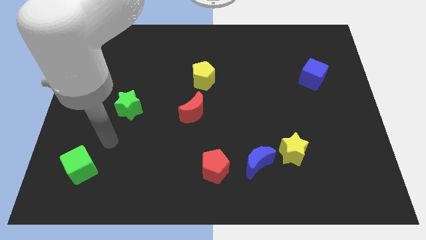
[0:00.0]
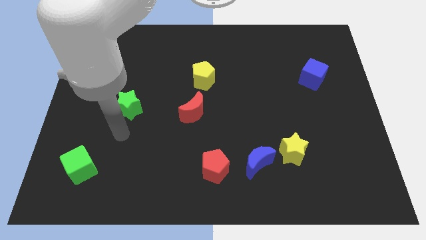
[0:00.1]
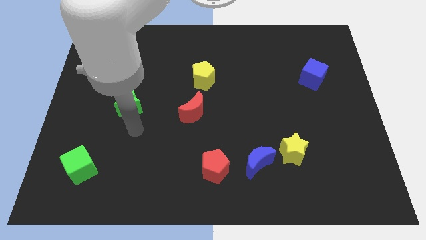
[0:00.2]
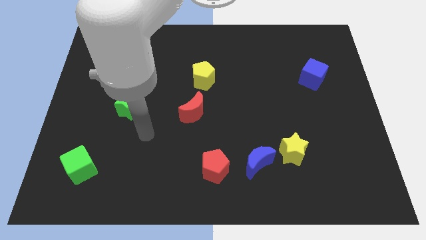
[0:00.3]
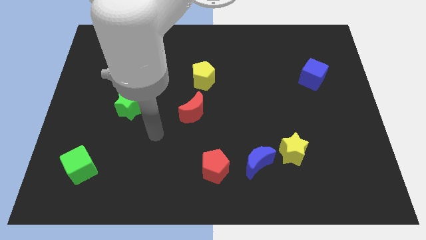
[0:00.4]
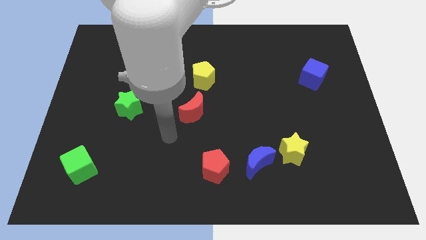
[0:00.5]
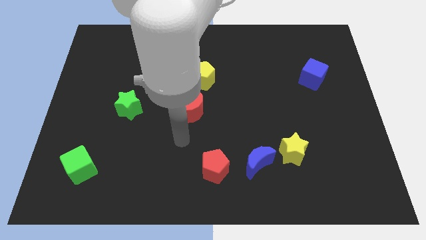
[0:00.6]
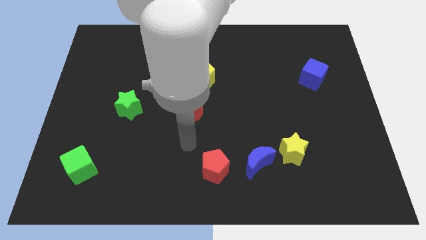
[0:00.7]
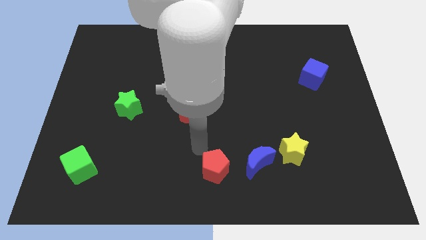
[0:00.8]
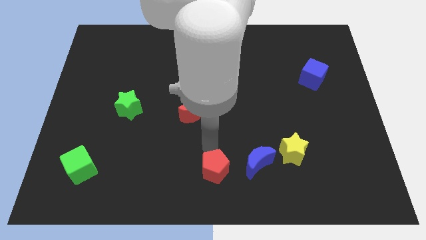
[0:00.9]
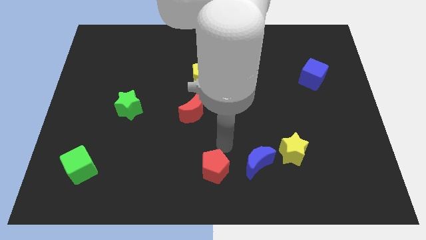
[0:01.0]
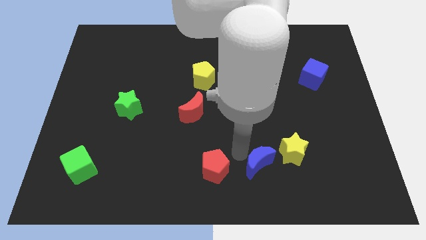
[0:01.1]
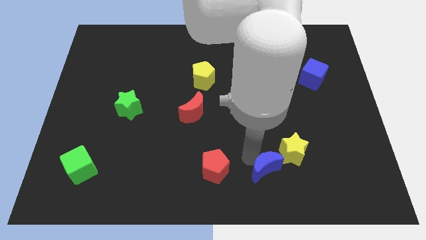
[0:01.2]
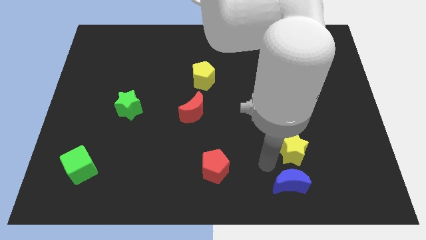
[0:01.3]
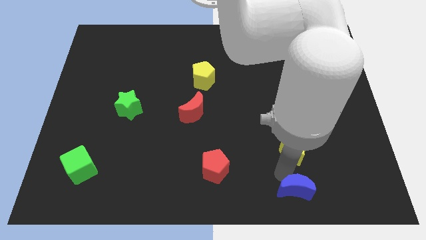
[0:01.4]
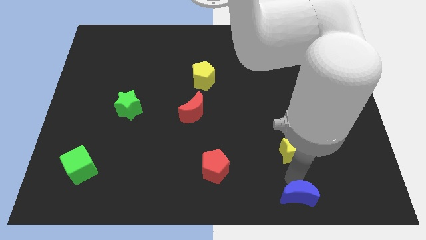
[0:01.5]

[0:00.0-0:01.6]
move the yellow star away from the blue moon

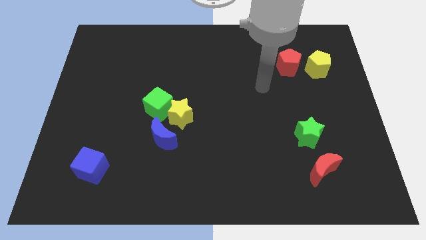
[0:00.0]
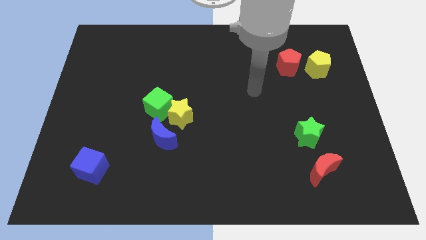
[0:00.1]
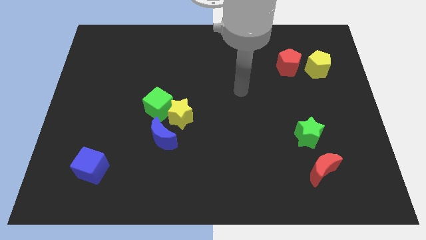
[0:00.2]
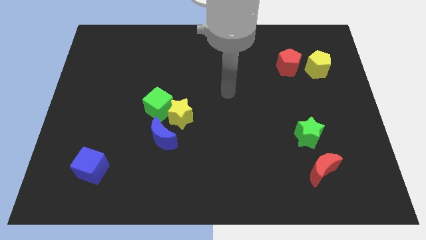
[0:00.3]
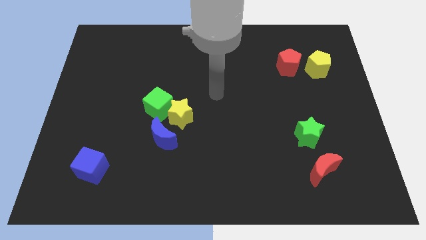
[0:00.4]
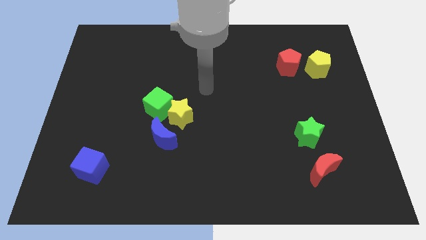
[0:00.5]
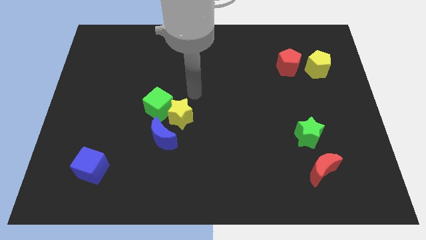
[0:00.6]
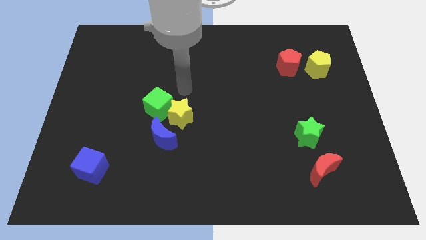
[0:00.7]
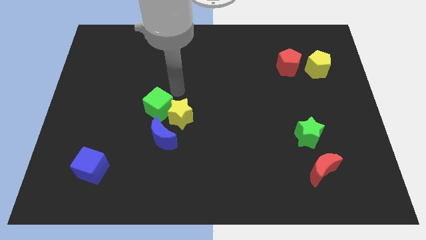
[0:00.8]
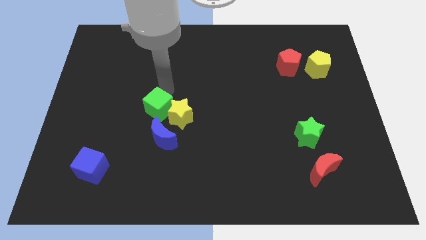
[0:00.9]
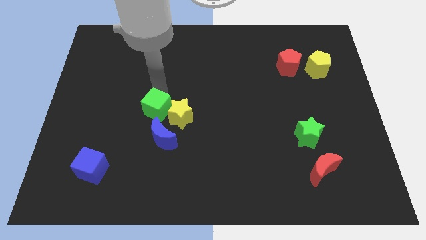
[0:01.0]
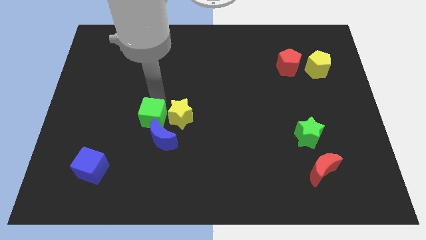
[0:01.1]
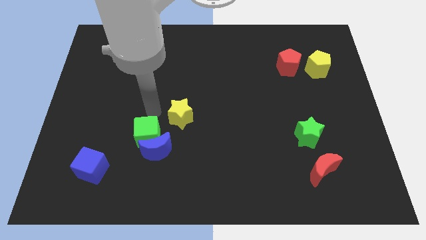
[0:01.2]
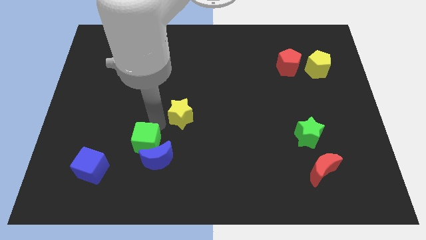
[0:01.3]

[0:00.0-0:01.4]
pull the yellow star apart from the green cube and blue moon

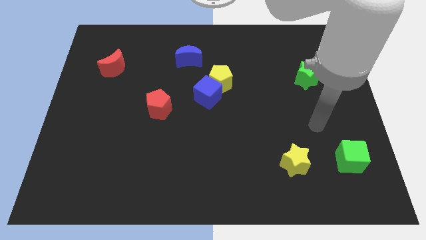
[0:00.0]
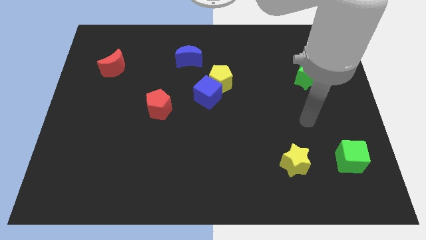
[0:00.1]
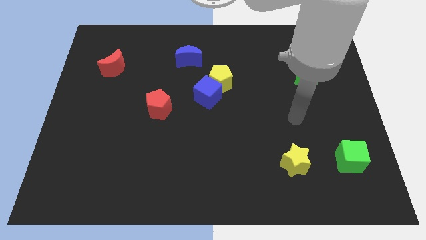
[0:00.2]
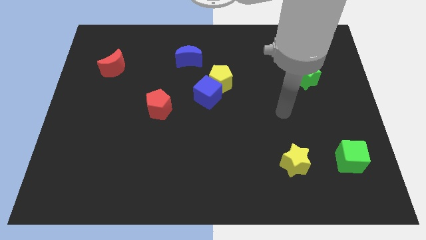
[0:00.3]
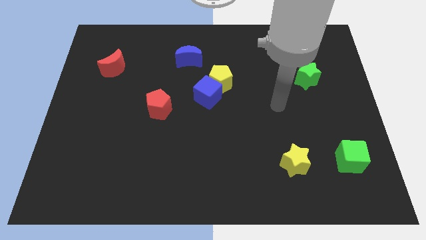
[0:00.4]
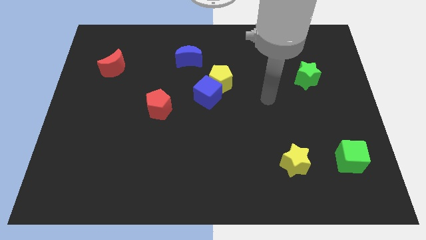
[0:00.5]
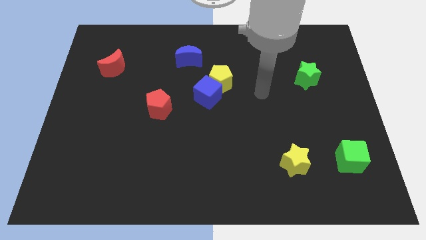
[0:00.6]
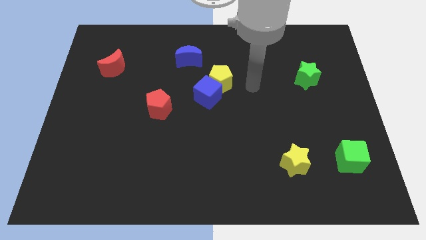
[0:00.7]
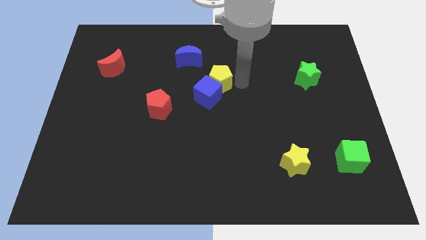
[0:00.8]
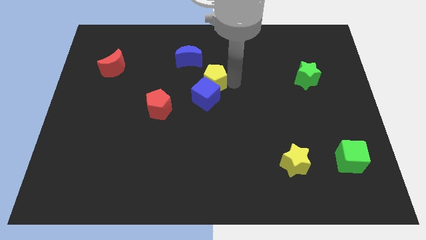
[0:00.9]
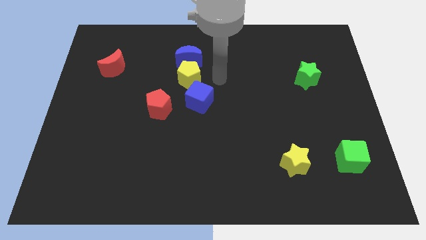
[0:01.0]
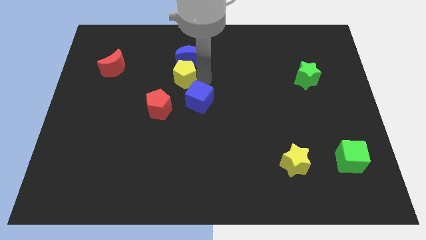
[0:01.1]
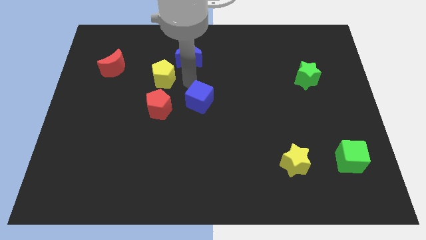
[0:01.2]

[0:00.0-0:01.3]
pull the blue cube apart from the yellow pentagon

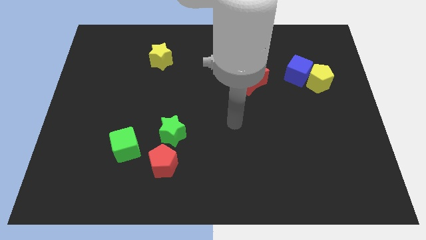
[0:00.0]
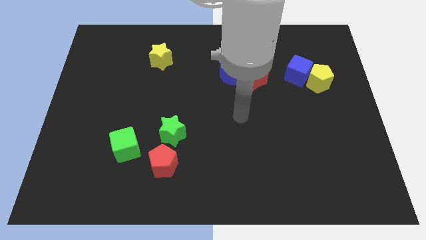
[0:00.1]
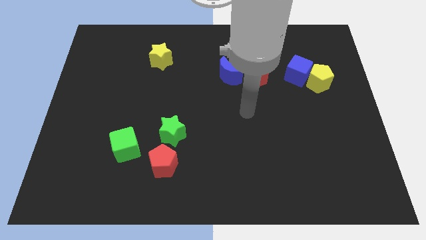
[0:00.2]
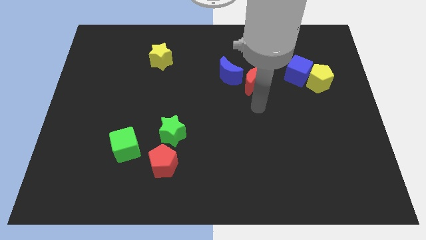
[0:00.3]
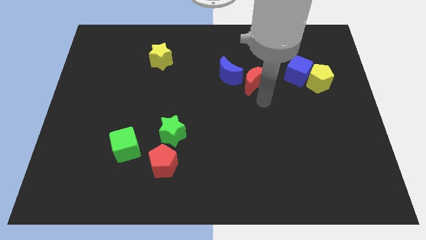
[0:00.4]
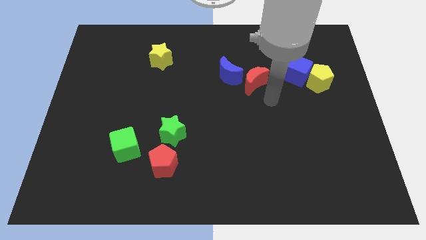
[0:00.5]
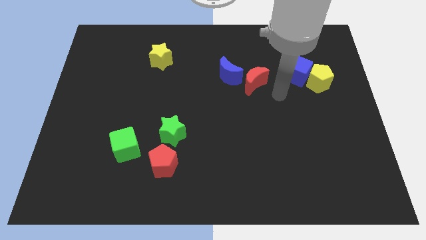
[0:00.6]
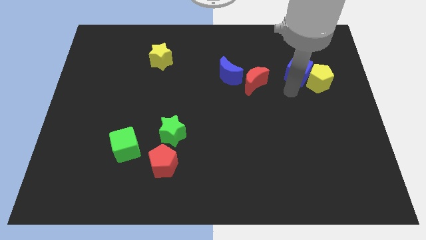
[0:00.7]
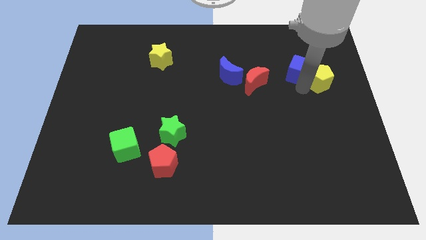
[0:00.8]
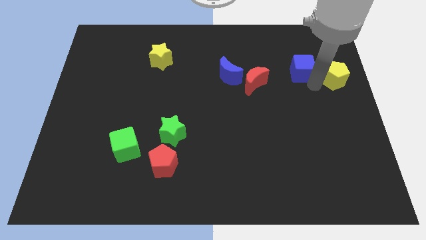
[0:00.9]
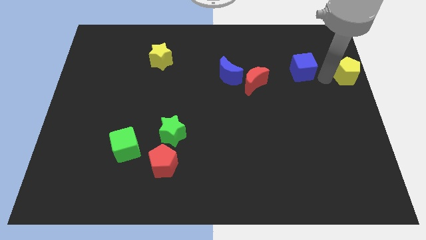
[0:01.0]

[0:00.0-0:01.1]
separate the blue cube from the yellow pentagon

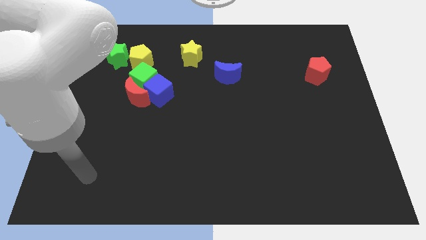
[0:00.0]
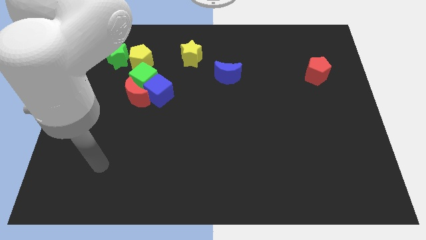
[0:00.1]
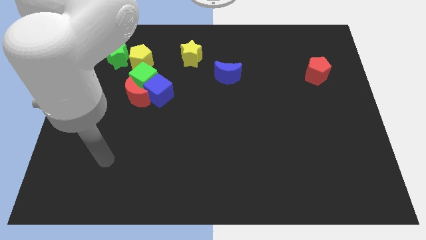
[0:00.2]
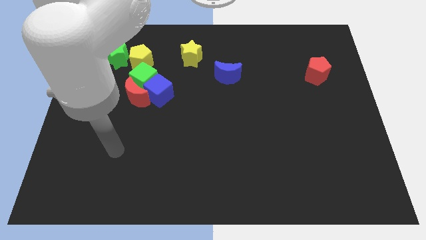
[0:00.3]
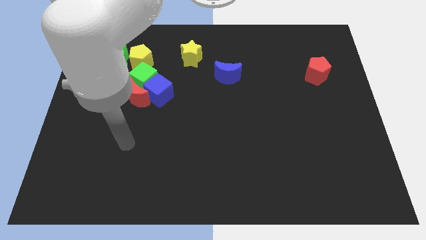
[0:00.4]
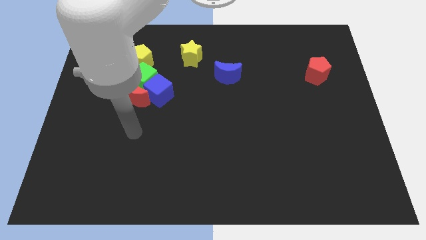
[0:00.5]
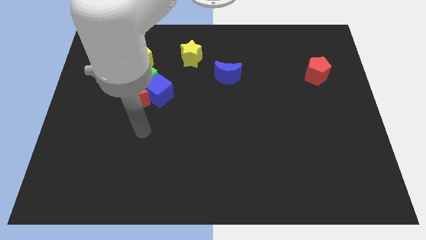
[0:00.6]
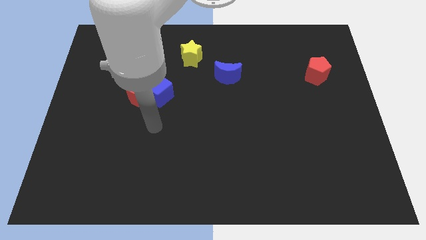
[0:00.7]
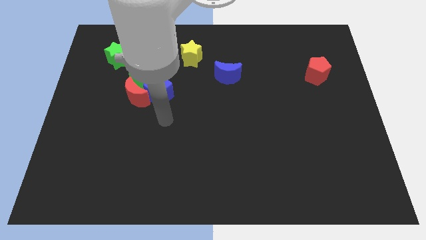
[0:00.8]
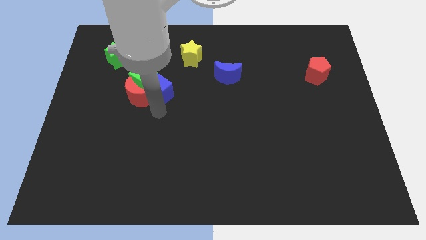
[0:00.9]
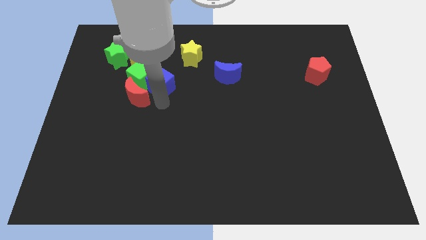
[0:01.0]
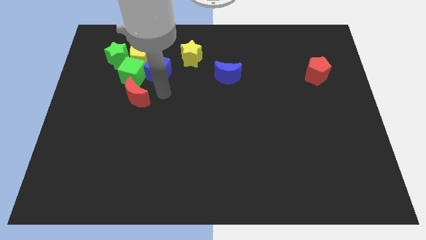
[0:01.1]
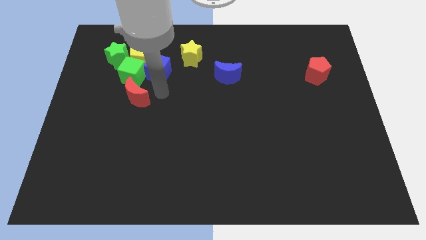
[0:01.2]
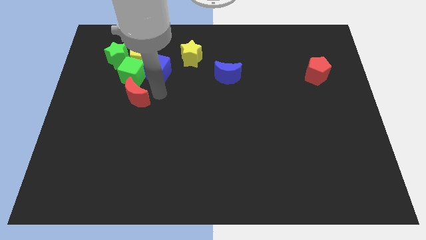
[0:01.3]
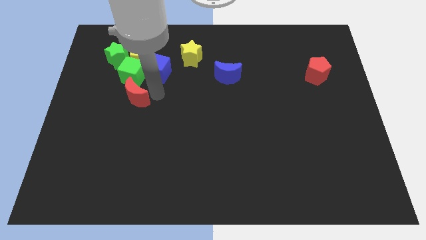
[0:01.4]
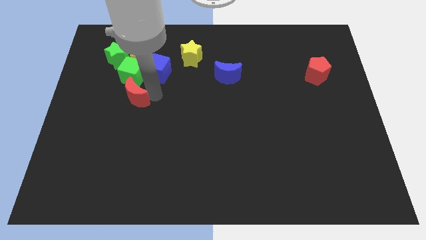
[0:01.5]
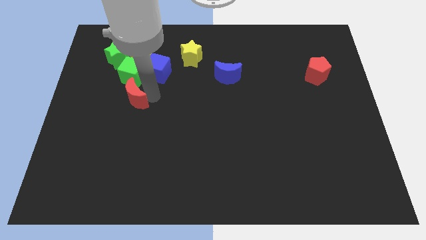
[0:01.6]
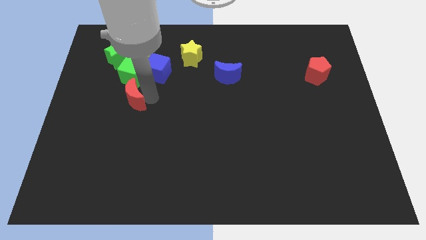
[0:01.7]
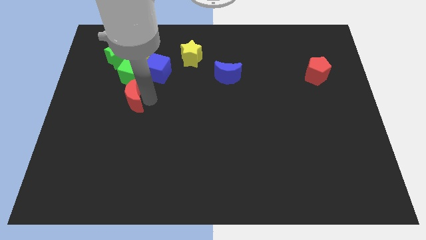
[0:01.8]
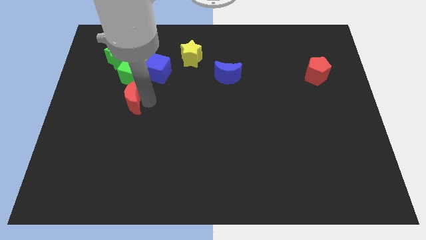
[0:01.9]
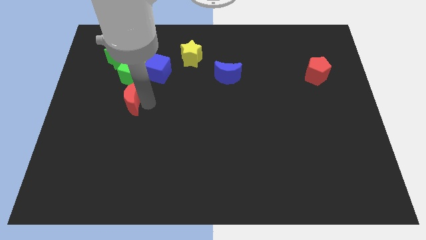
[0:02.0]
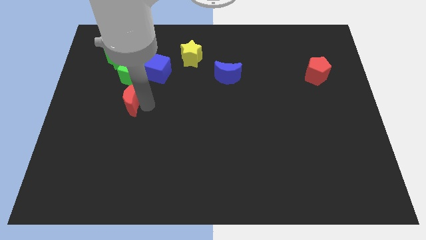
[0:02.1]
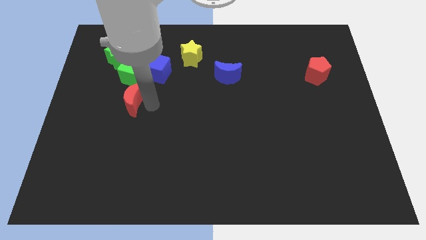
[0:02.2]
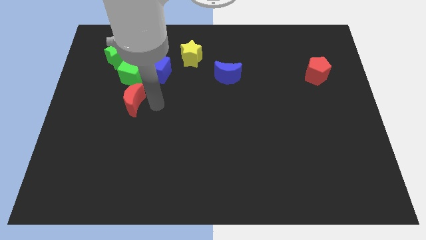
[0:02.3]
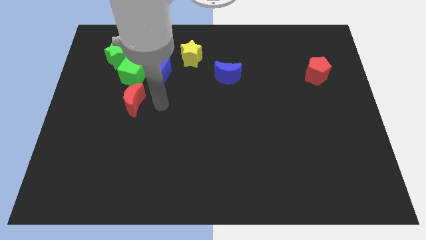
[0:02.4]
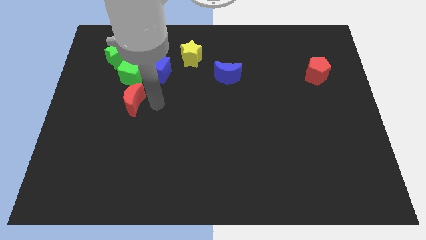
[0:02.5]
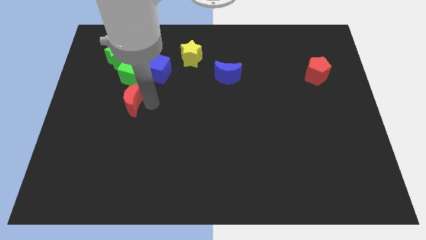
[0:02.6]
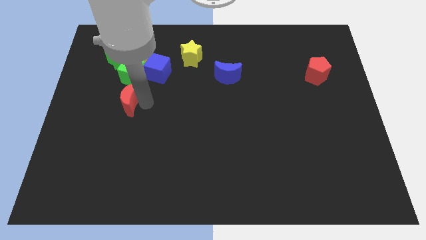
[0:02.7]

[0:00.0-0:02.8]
pull the red moon apart from the green cube and blue cube

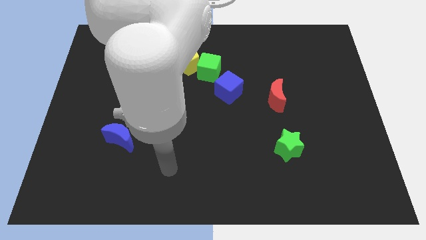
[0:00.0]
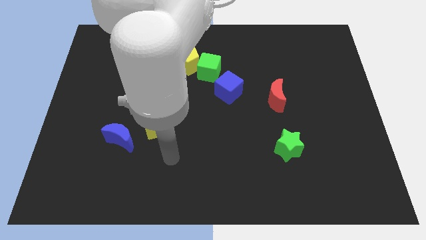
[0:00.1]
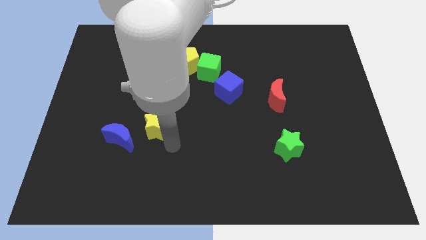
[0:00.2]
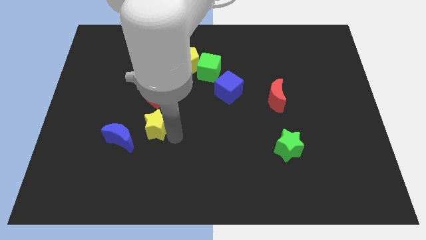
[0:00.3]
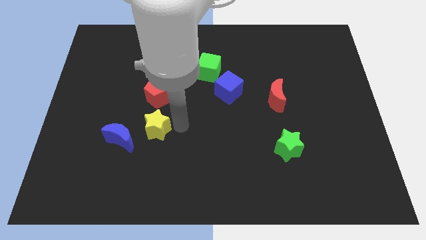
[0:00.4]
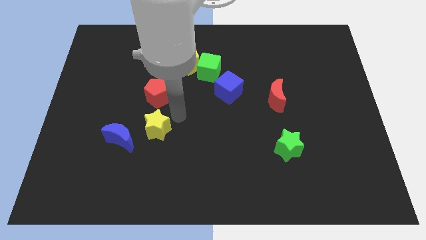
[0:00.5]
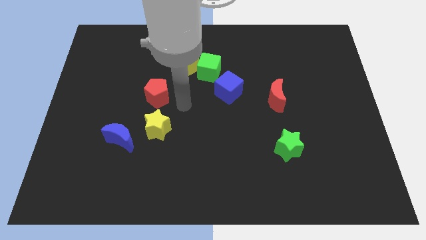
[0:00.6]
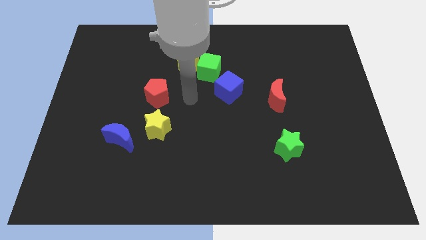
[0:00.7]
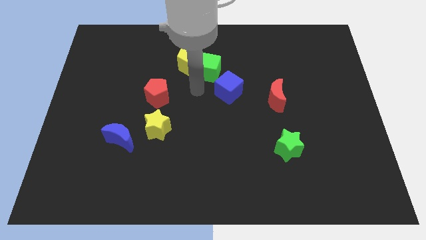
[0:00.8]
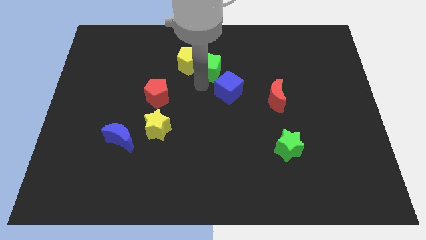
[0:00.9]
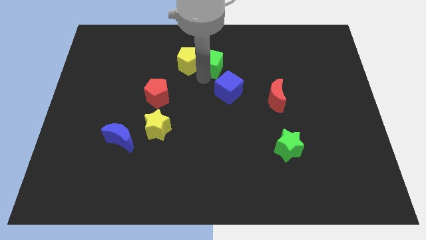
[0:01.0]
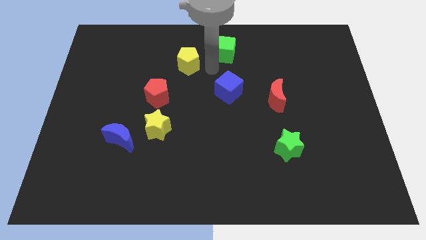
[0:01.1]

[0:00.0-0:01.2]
pull the yellow pentagon apart from the green cube
